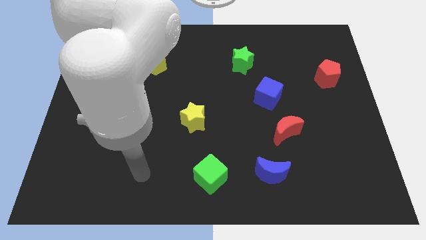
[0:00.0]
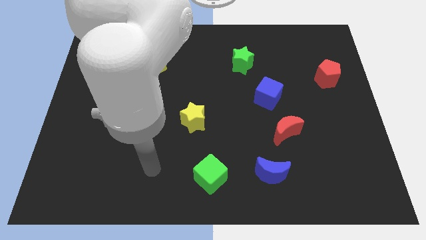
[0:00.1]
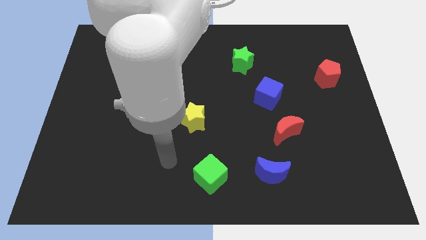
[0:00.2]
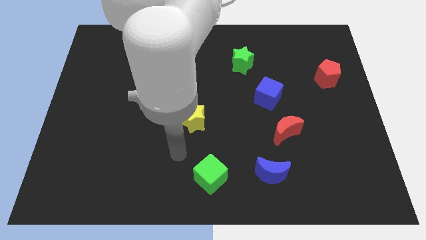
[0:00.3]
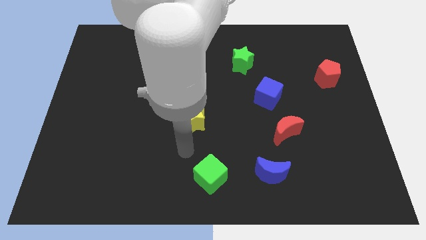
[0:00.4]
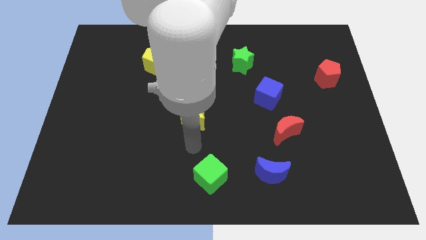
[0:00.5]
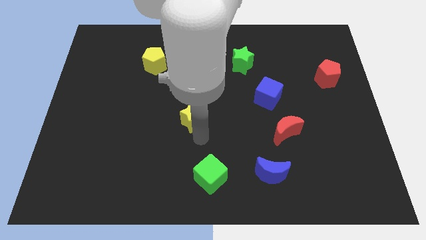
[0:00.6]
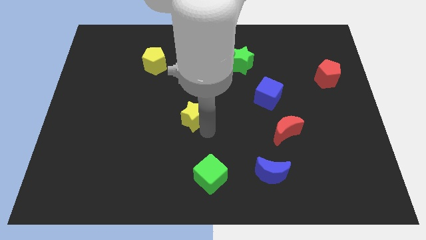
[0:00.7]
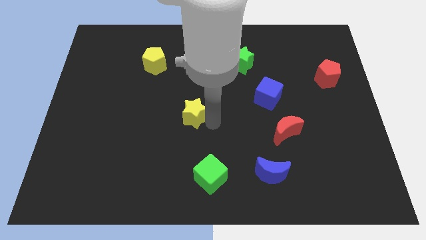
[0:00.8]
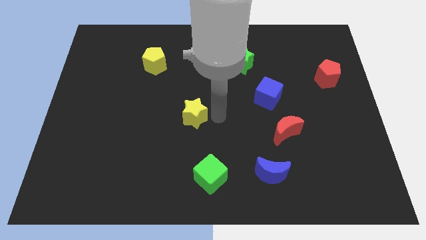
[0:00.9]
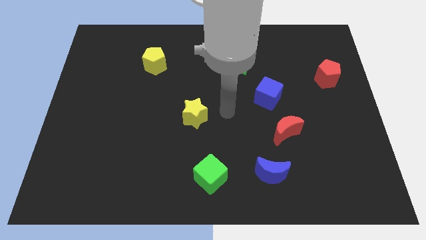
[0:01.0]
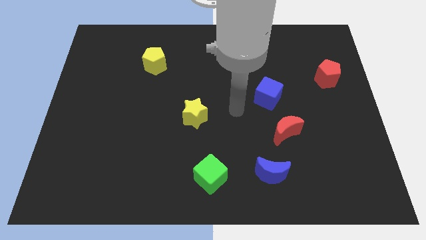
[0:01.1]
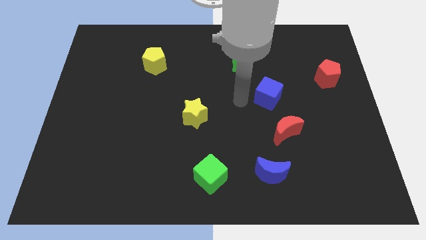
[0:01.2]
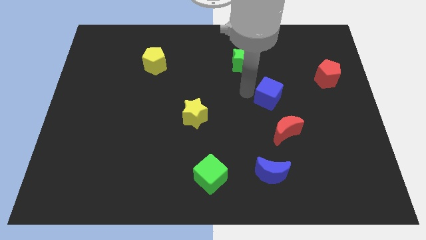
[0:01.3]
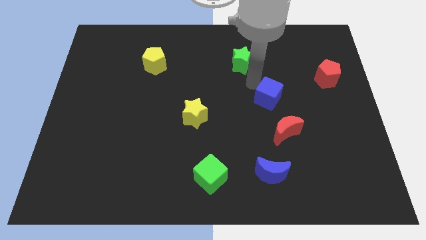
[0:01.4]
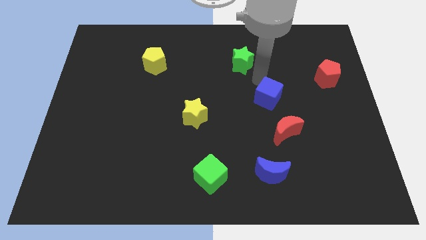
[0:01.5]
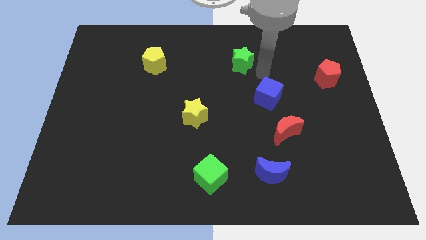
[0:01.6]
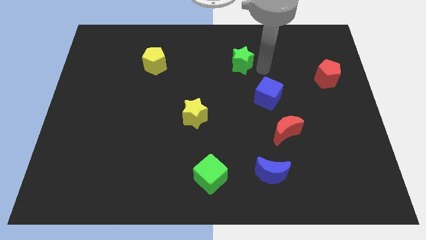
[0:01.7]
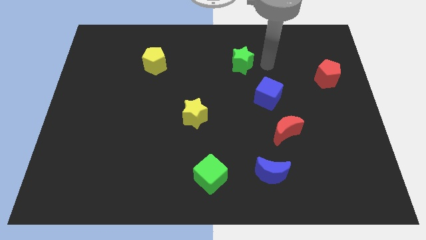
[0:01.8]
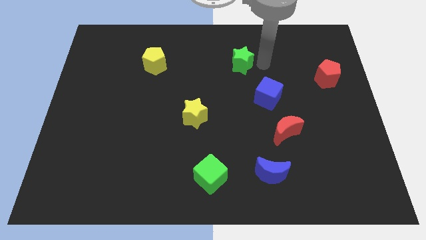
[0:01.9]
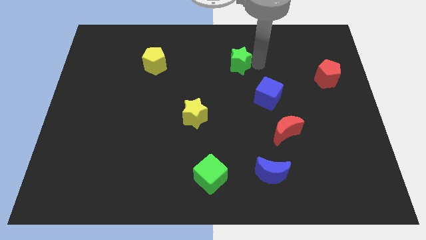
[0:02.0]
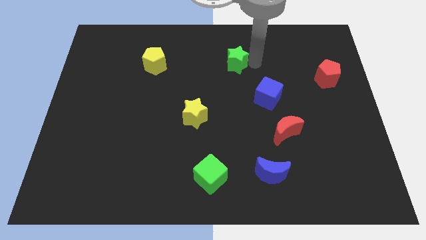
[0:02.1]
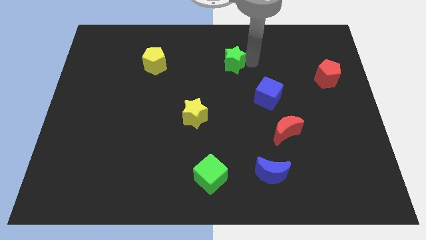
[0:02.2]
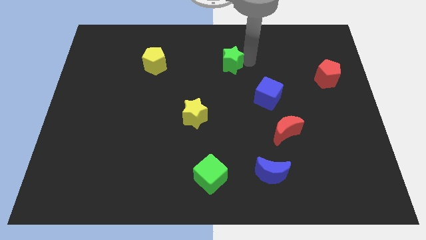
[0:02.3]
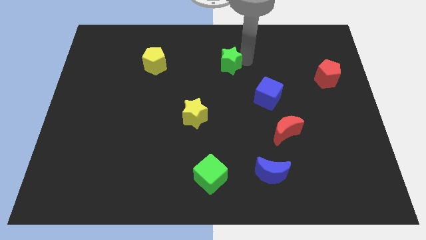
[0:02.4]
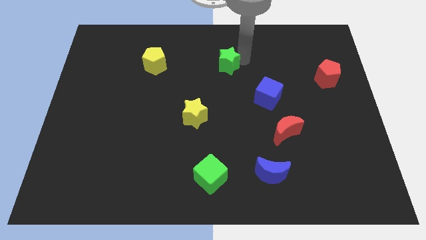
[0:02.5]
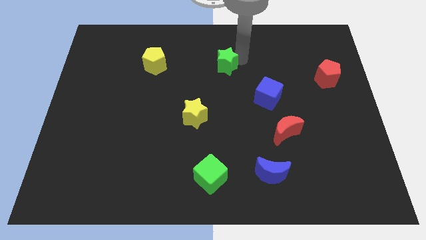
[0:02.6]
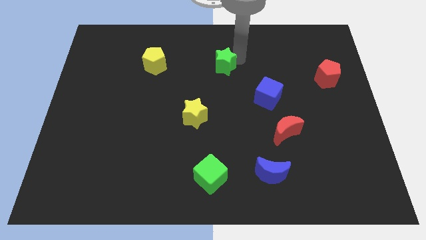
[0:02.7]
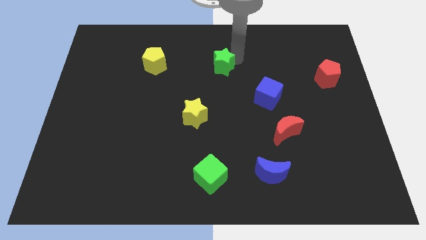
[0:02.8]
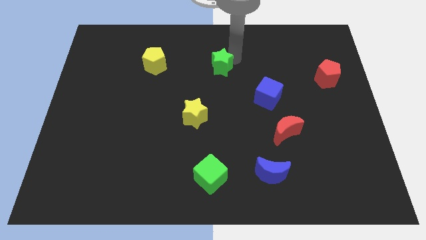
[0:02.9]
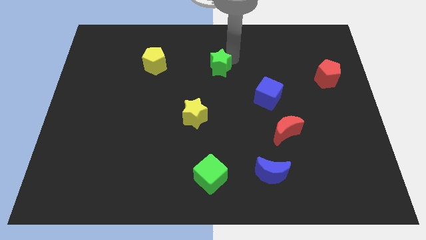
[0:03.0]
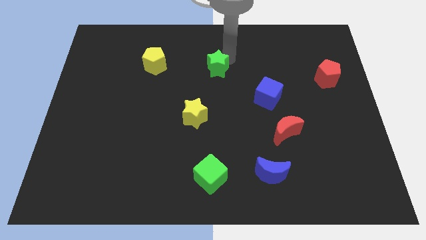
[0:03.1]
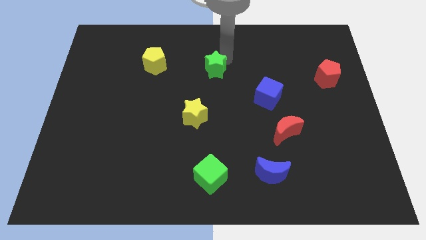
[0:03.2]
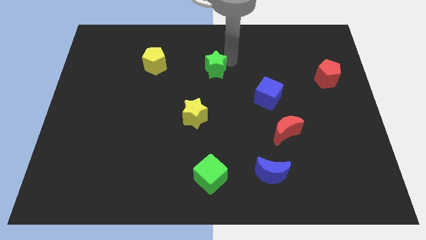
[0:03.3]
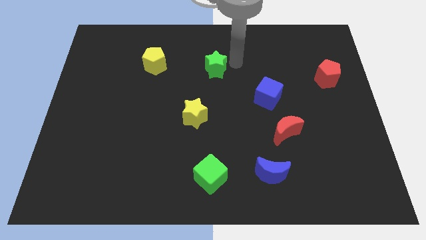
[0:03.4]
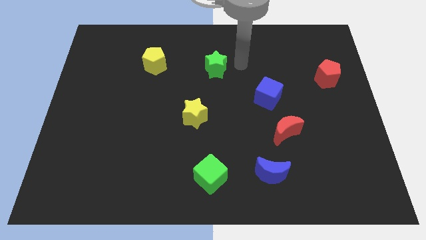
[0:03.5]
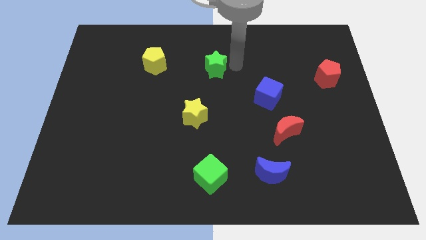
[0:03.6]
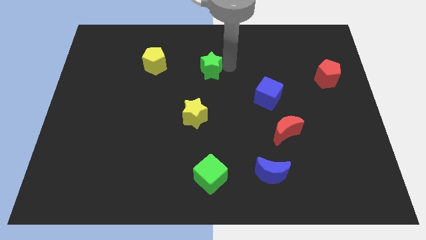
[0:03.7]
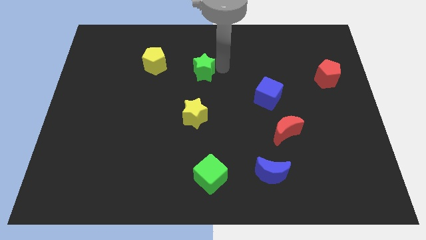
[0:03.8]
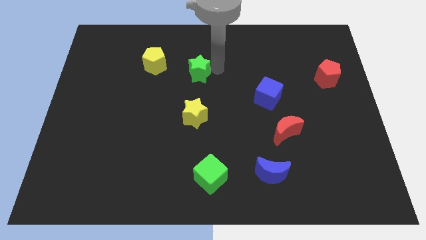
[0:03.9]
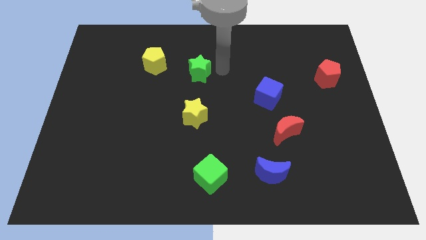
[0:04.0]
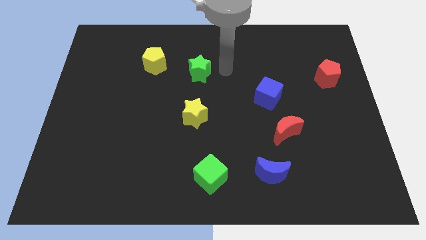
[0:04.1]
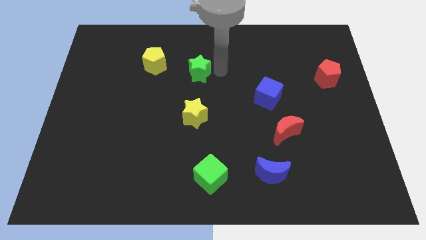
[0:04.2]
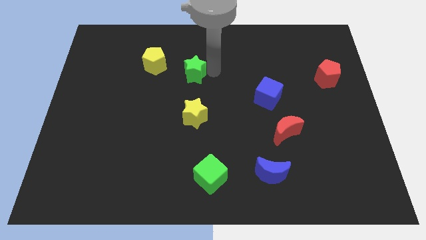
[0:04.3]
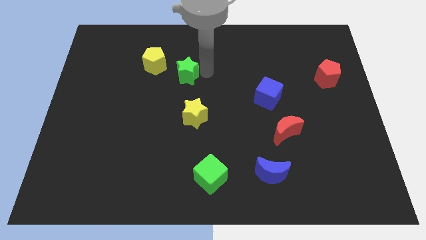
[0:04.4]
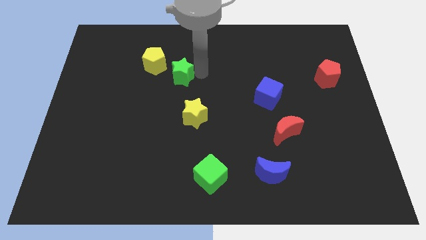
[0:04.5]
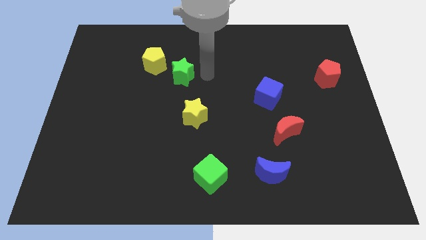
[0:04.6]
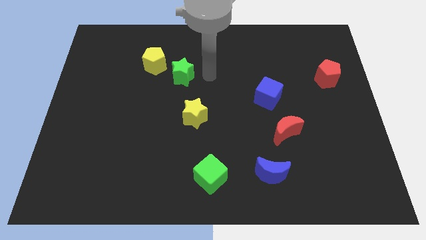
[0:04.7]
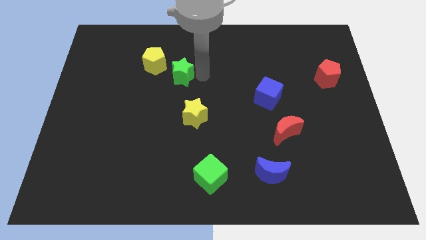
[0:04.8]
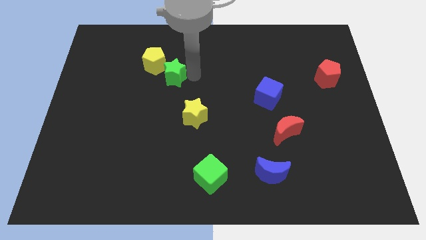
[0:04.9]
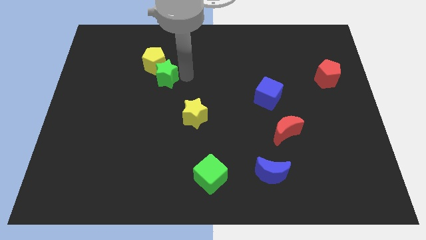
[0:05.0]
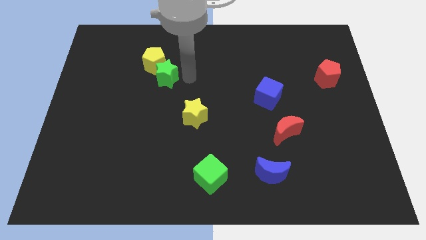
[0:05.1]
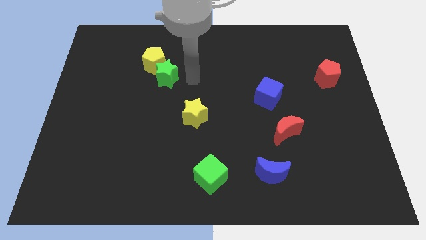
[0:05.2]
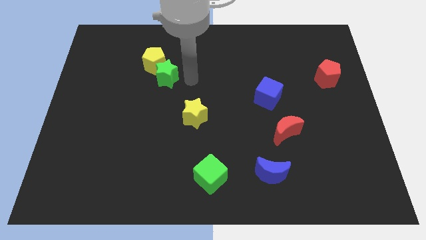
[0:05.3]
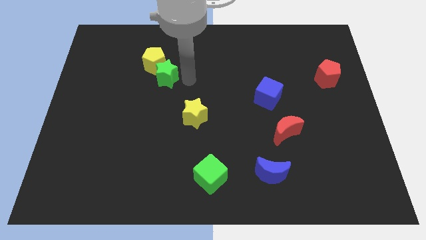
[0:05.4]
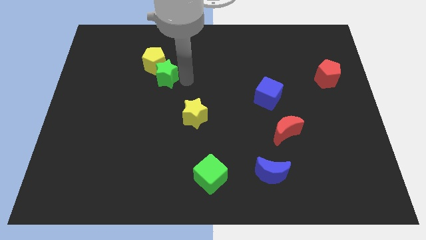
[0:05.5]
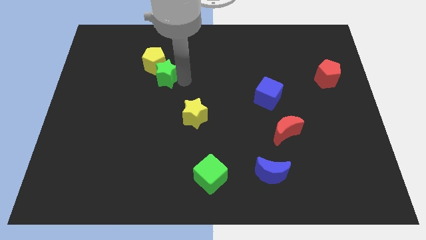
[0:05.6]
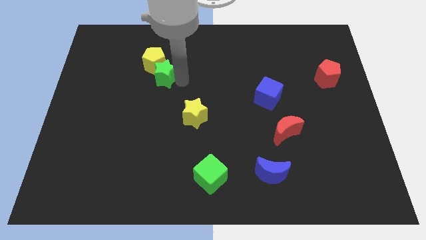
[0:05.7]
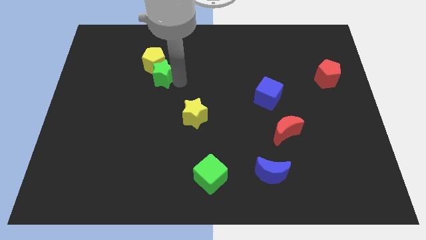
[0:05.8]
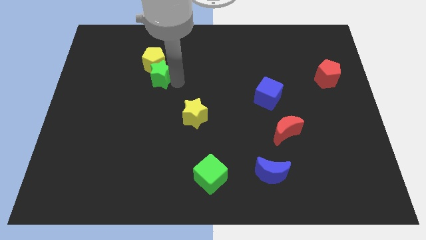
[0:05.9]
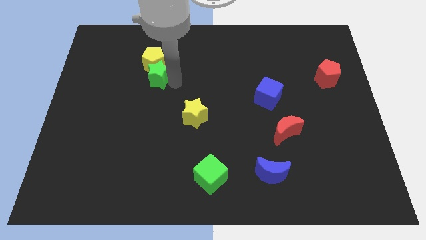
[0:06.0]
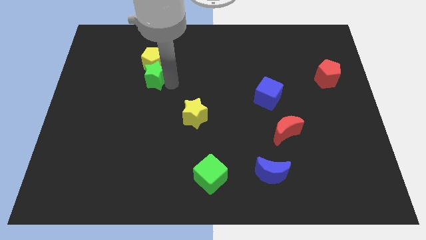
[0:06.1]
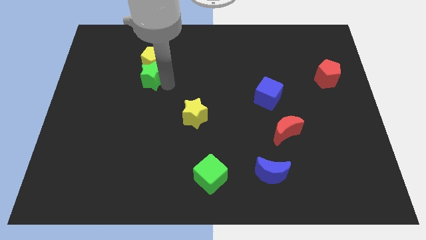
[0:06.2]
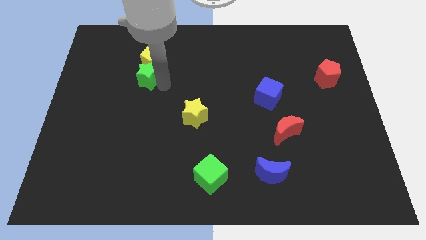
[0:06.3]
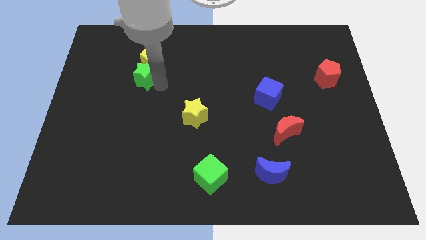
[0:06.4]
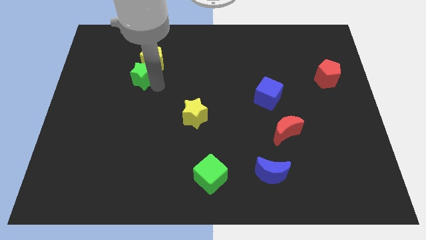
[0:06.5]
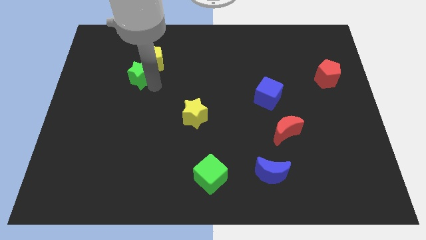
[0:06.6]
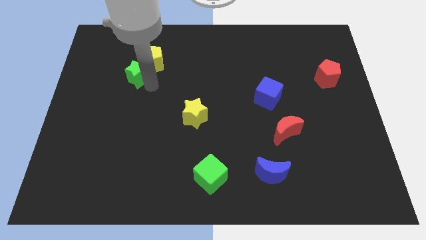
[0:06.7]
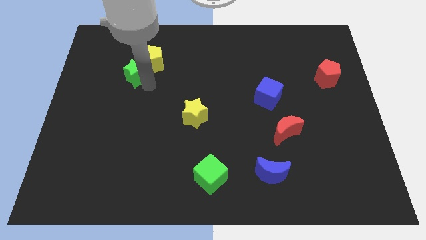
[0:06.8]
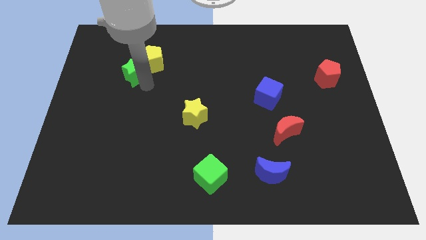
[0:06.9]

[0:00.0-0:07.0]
move the green star to the left side of the yellow pentagon
